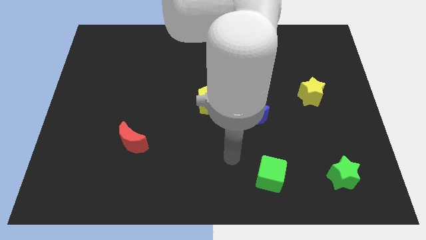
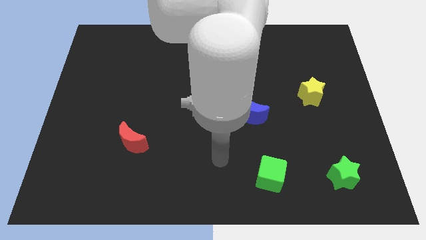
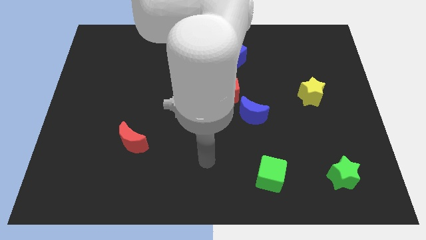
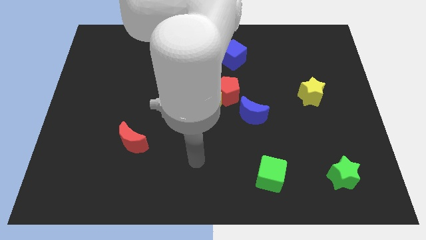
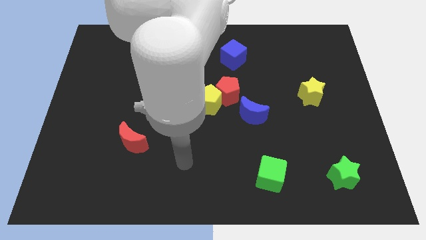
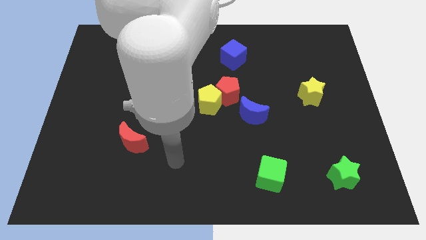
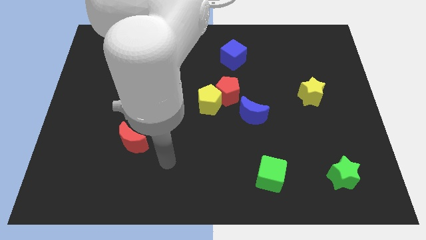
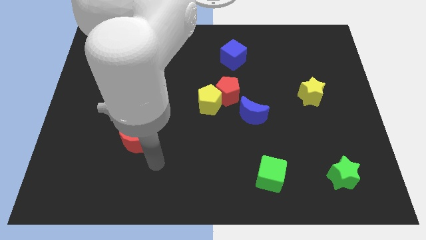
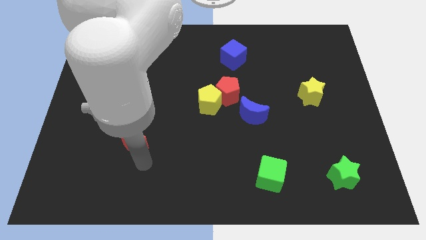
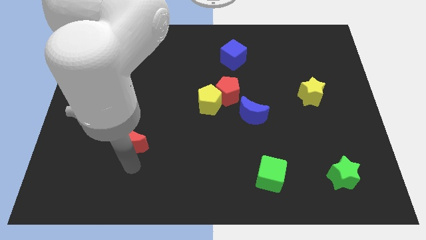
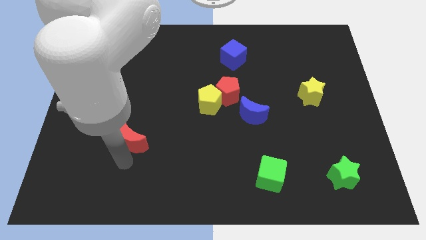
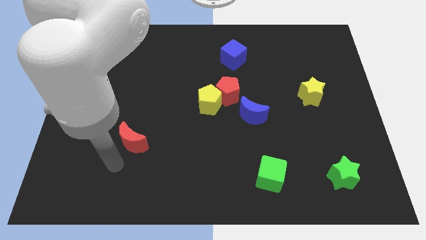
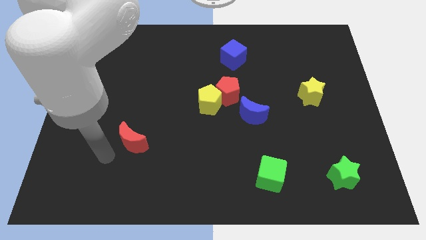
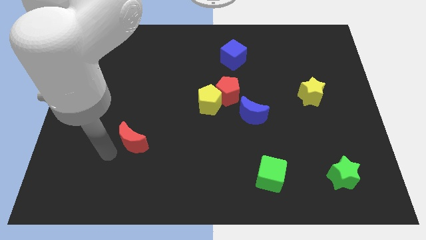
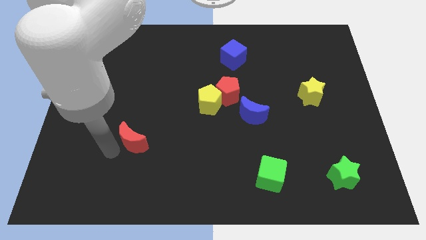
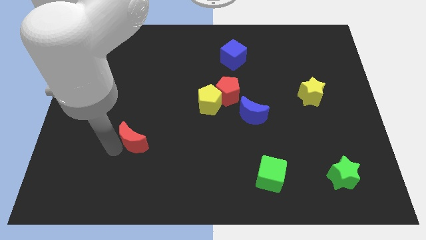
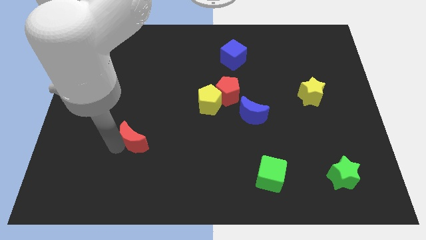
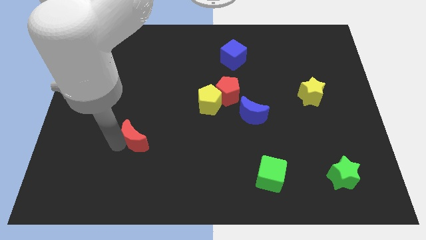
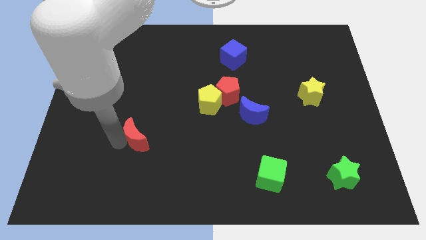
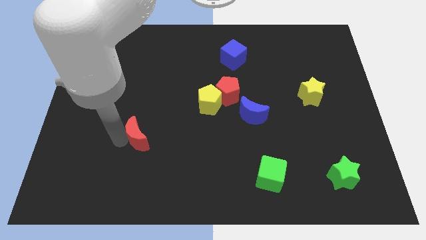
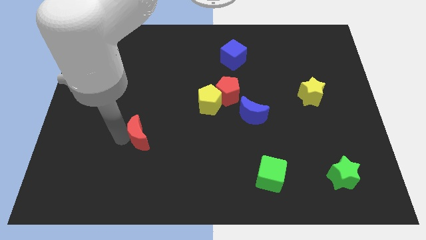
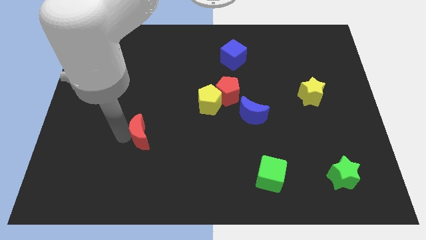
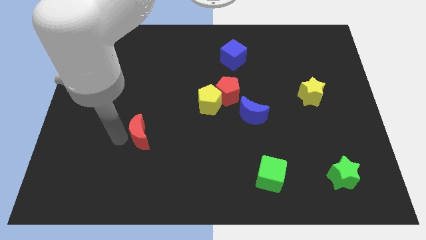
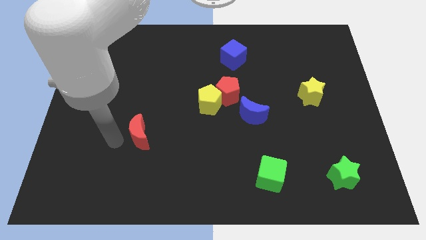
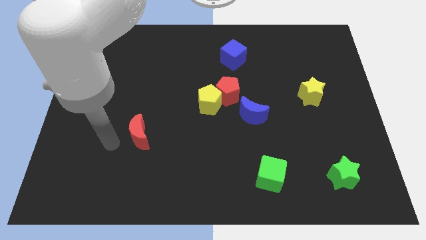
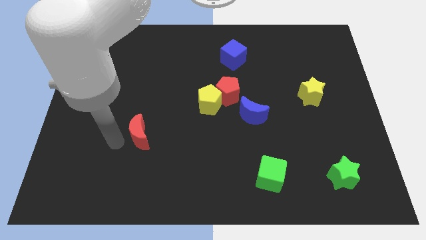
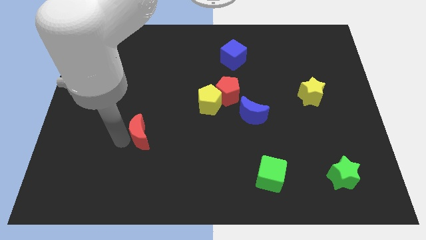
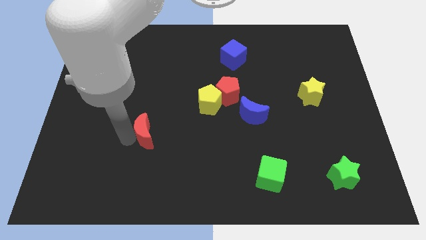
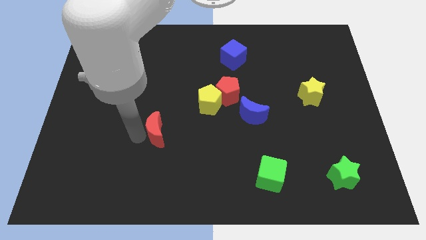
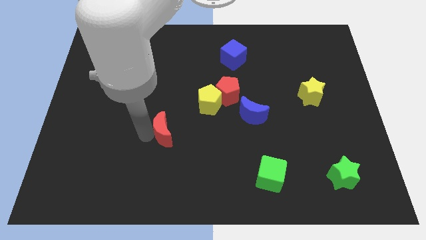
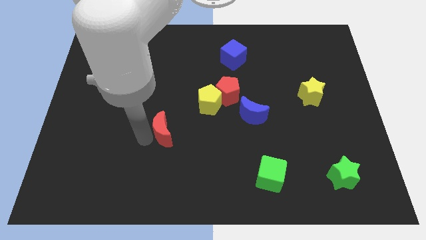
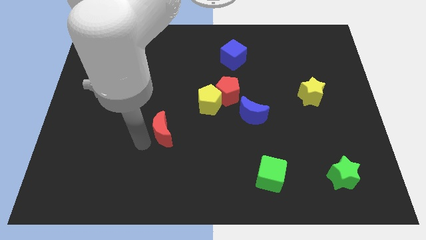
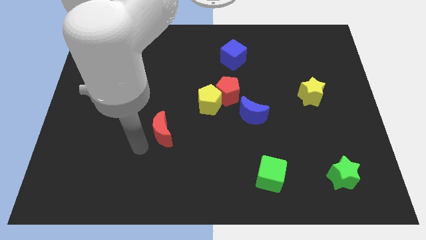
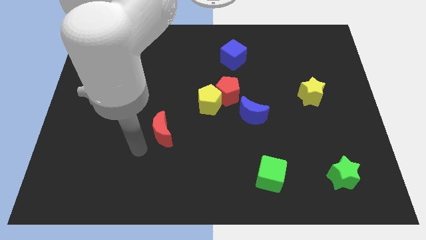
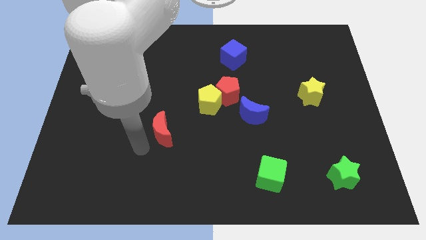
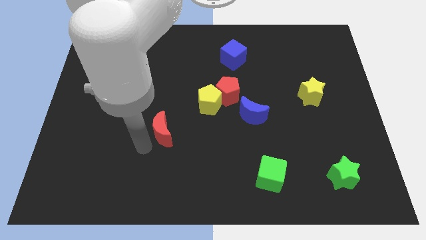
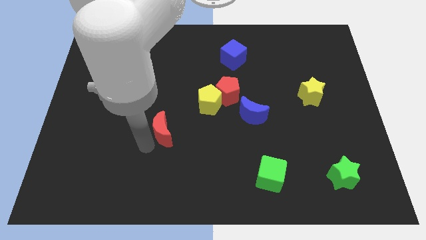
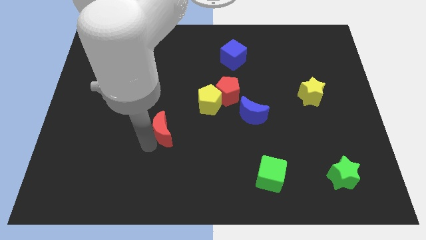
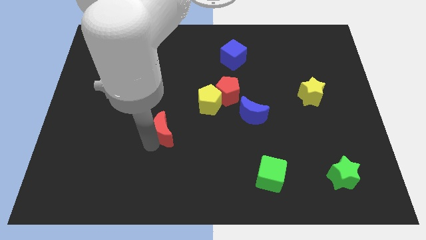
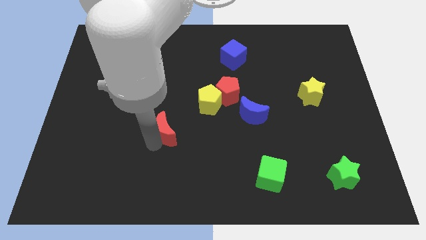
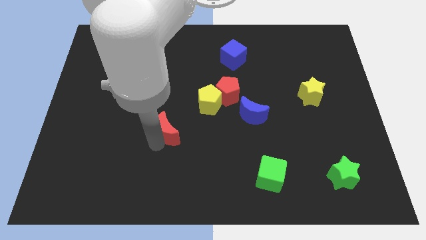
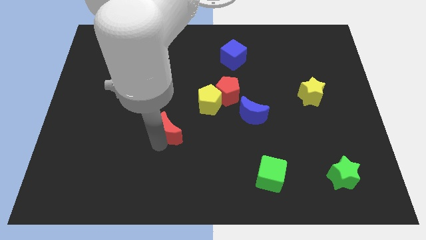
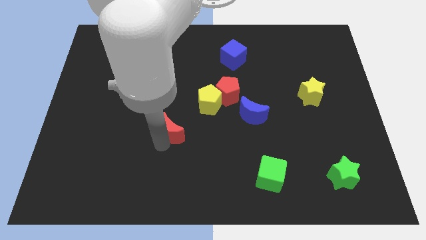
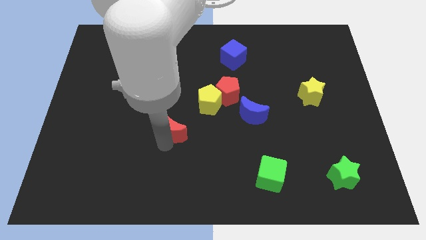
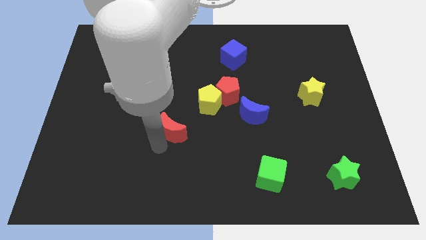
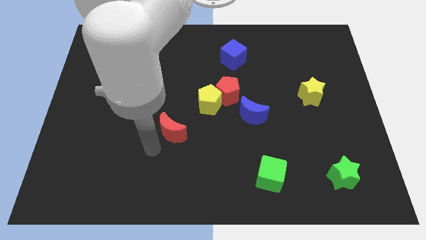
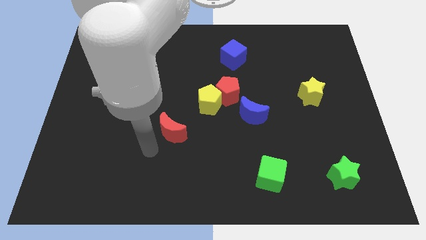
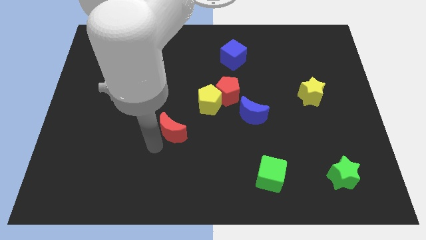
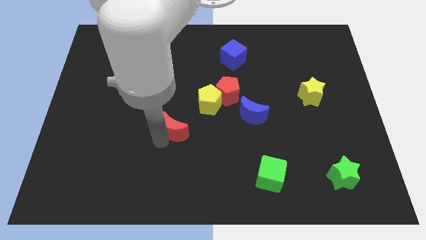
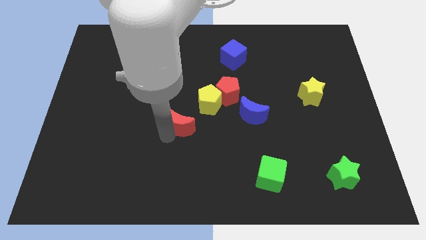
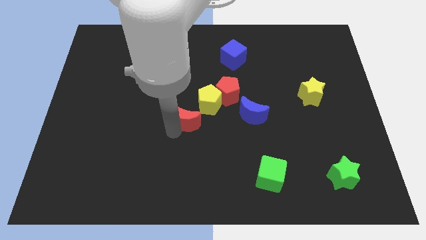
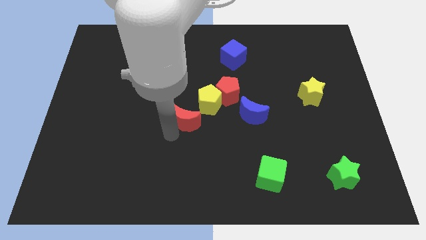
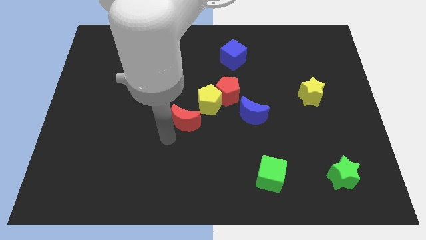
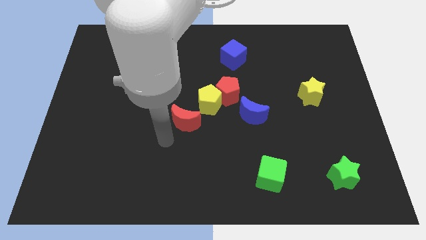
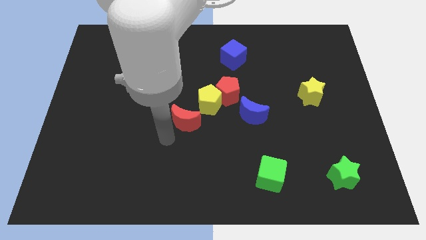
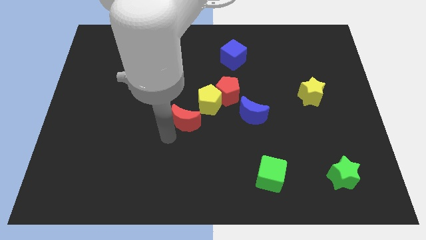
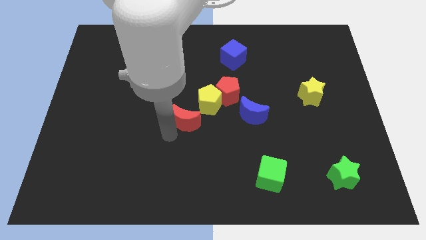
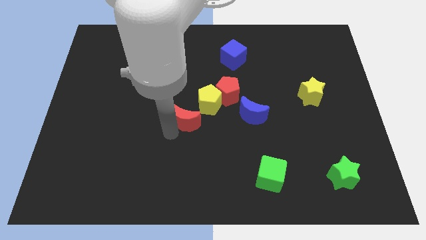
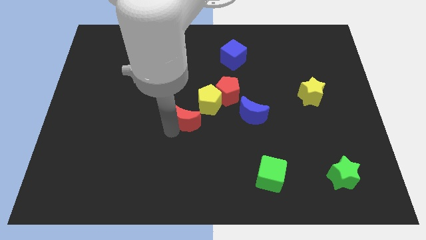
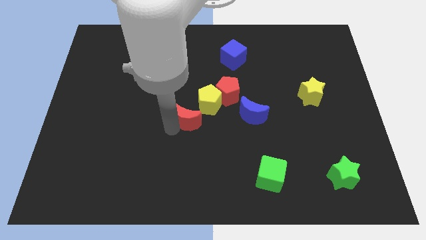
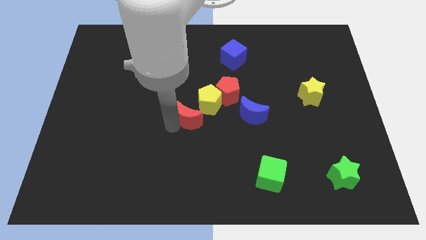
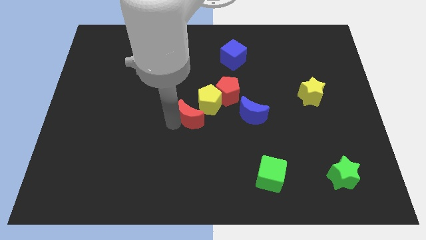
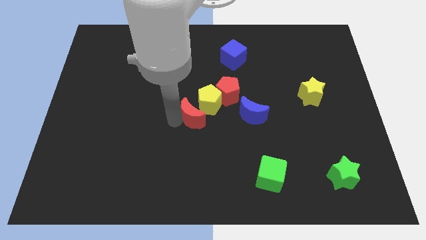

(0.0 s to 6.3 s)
slide the red moon towards the yellow pentagon

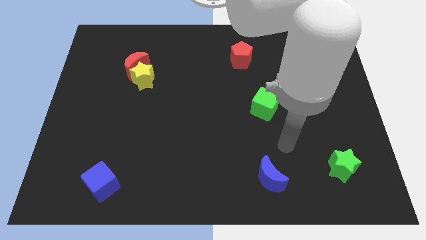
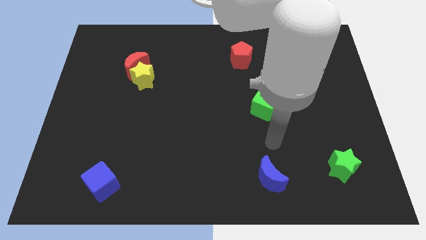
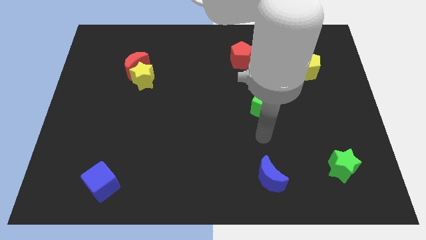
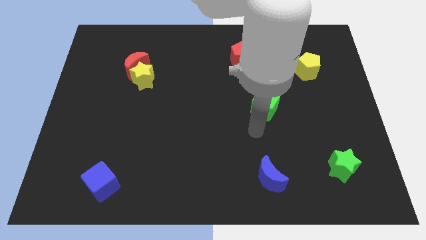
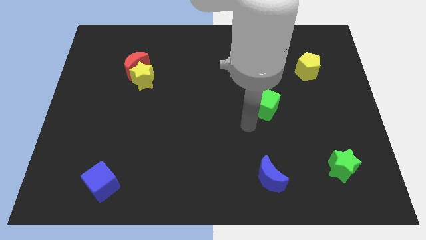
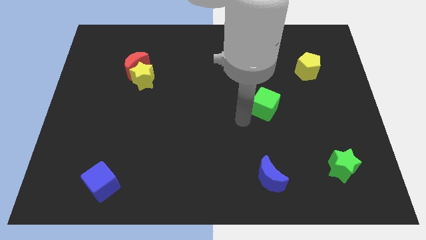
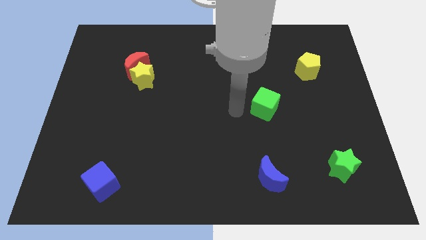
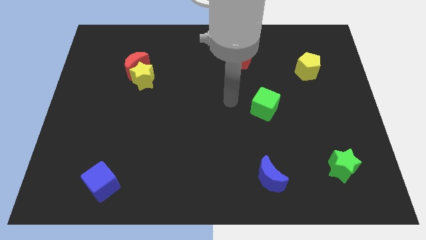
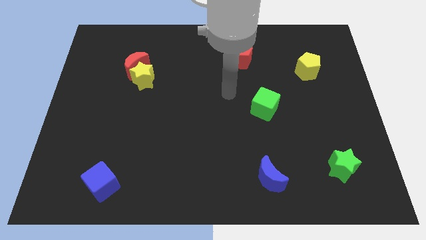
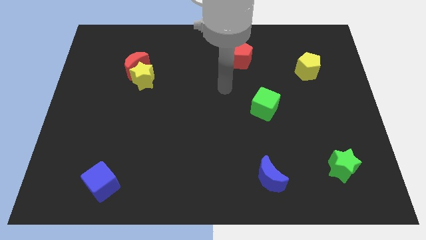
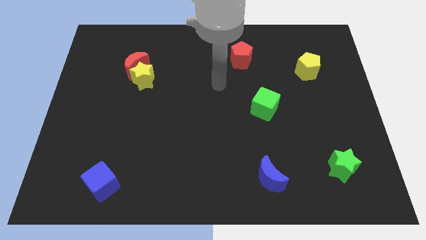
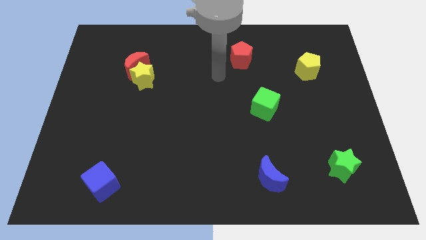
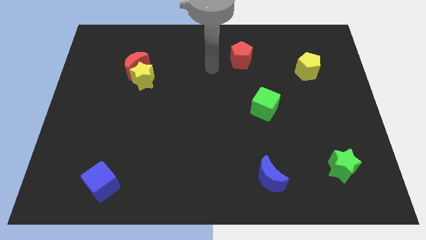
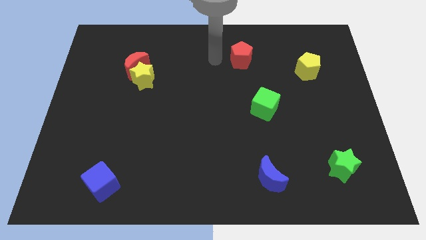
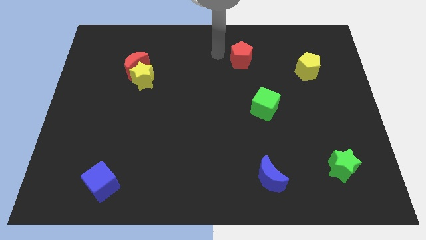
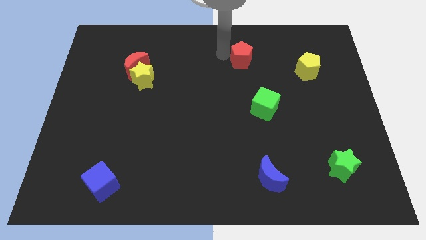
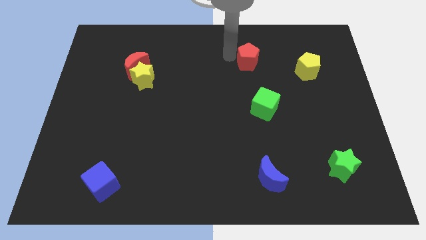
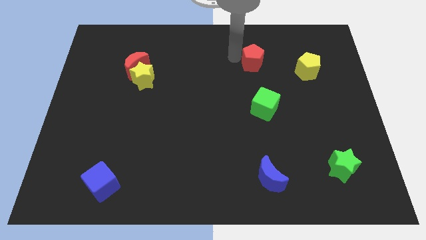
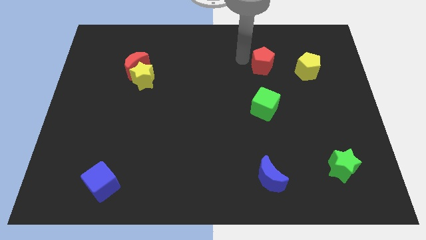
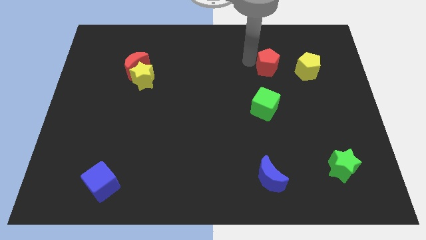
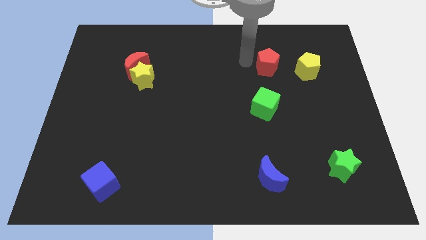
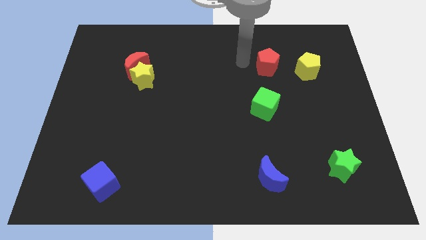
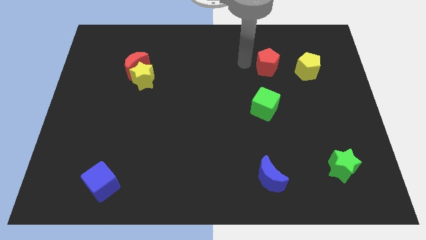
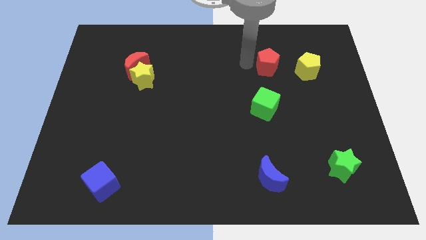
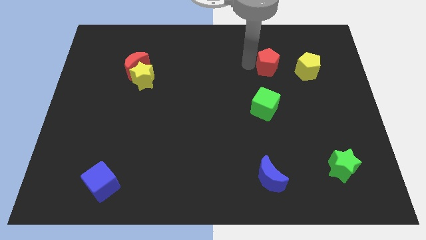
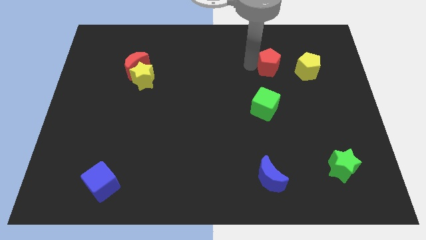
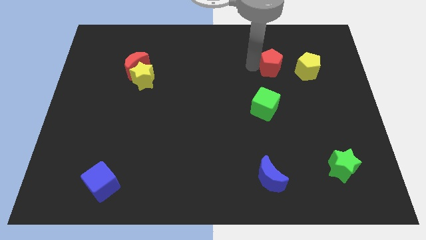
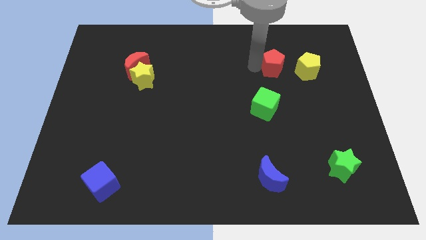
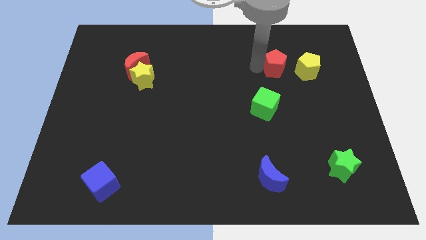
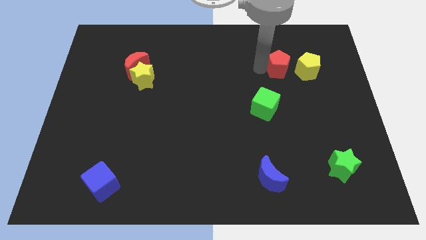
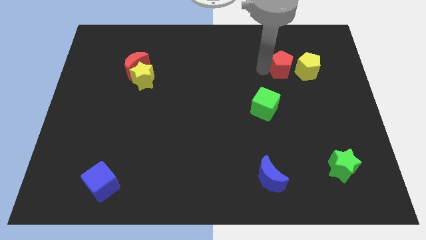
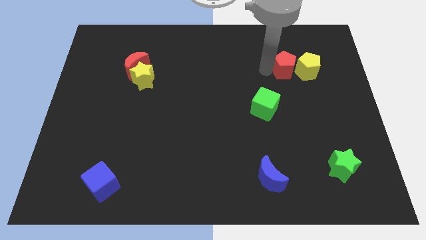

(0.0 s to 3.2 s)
put the red pentagon to the yellow pentagon
